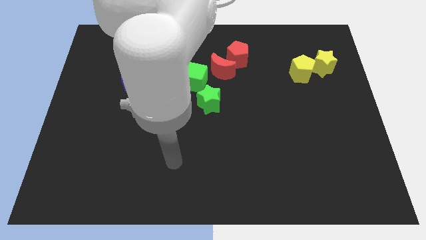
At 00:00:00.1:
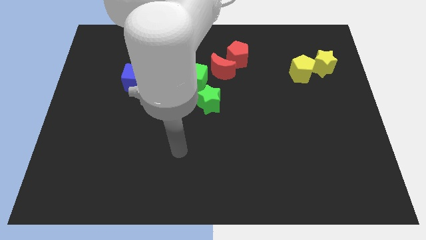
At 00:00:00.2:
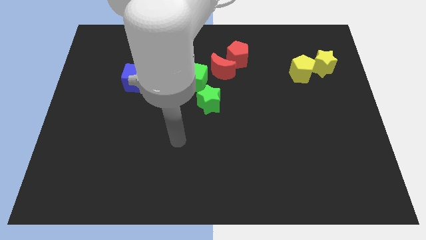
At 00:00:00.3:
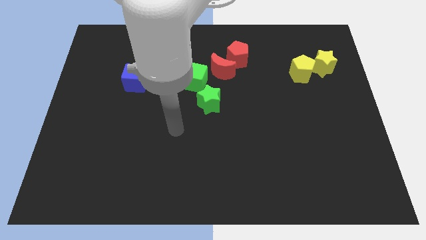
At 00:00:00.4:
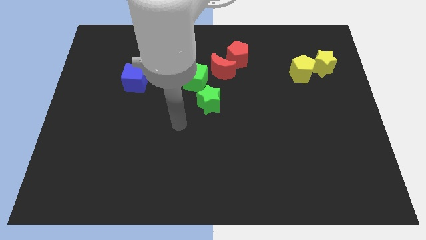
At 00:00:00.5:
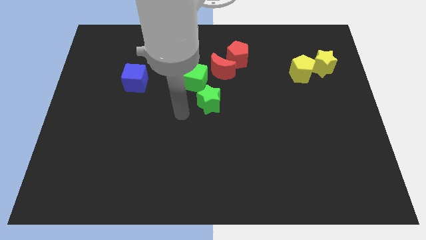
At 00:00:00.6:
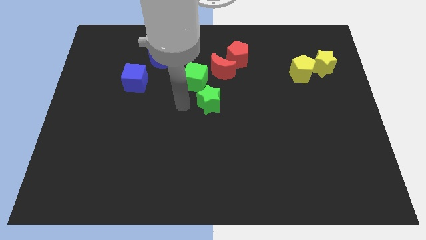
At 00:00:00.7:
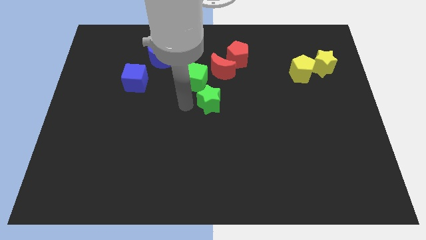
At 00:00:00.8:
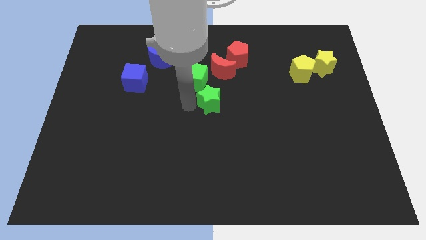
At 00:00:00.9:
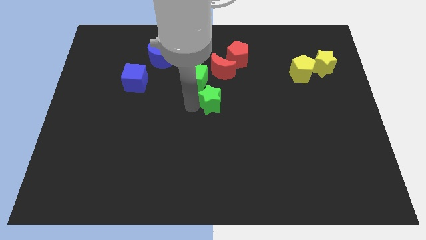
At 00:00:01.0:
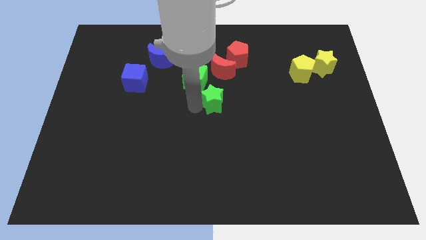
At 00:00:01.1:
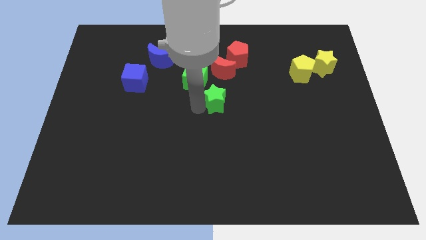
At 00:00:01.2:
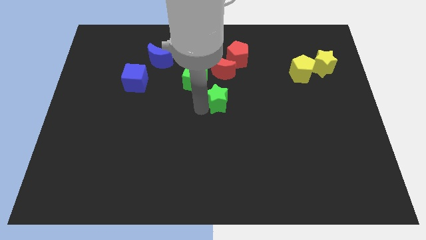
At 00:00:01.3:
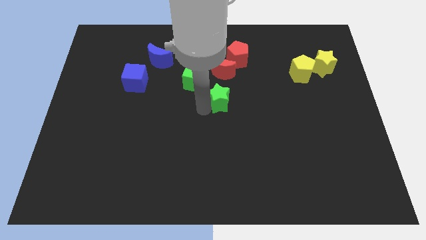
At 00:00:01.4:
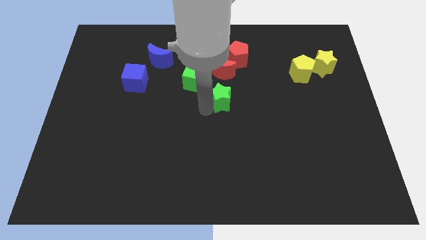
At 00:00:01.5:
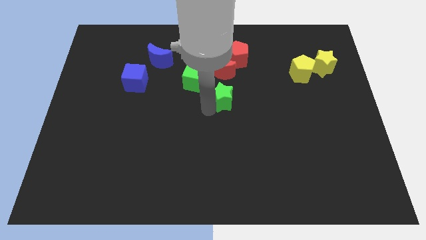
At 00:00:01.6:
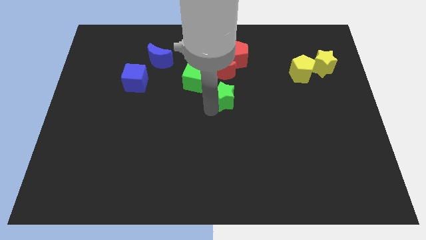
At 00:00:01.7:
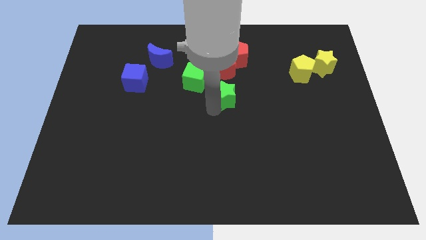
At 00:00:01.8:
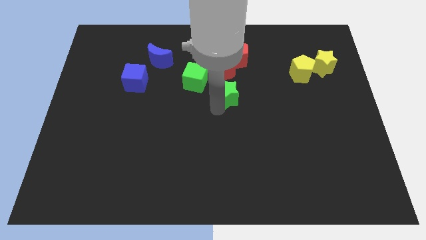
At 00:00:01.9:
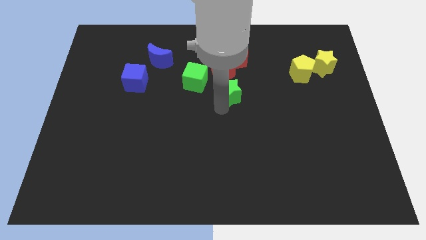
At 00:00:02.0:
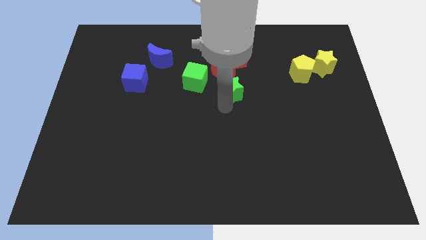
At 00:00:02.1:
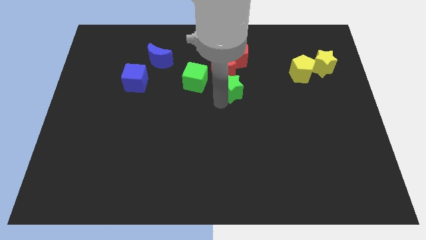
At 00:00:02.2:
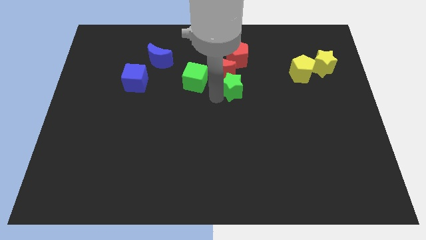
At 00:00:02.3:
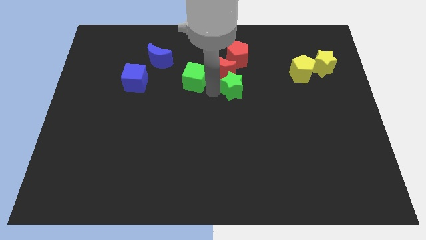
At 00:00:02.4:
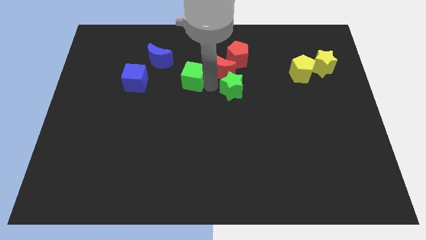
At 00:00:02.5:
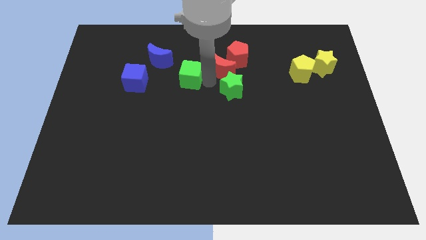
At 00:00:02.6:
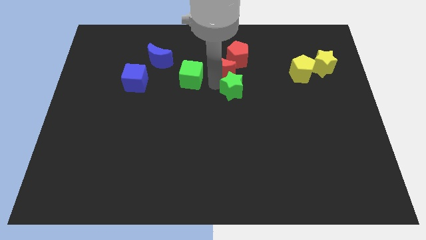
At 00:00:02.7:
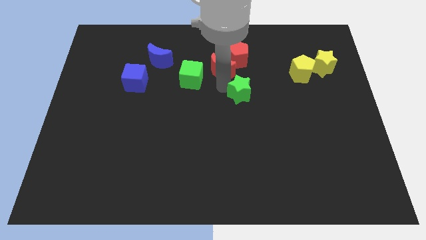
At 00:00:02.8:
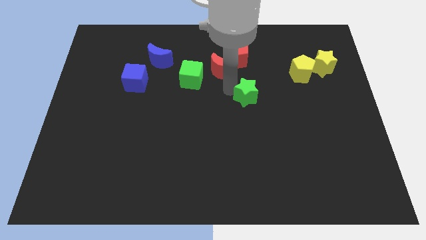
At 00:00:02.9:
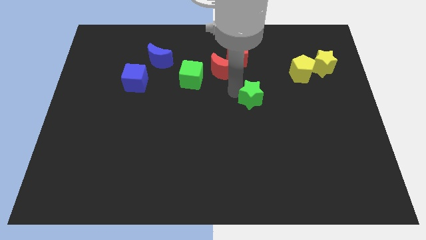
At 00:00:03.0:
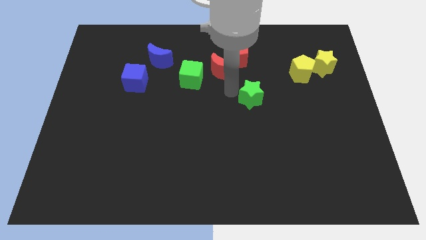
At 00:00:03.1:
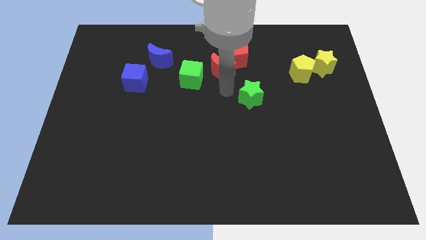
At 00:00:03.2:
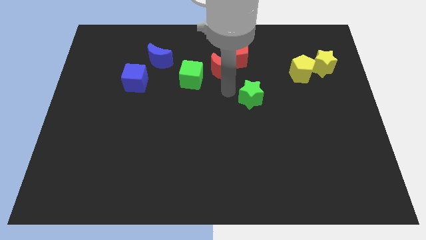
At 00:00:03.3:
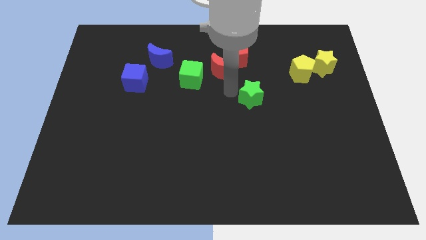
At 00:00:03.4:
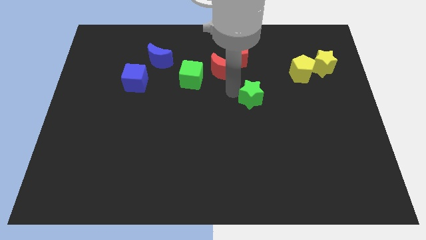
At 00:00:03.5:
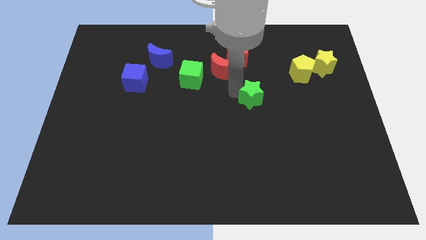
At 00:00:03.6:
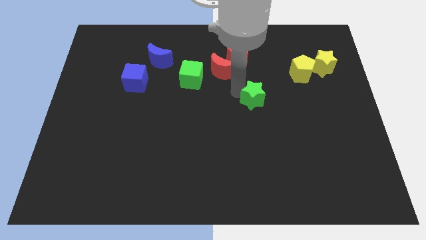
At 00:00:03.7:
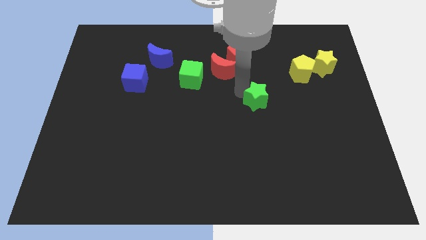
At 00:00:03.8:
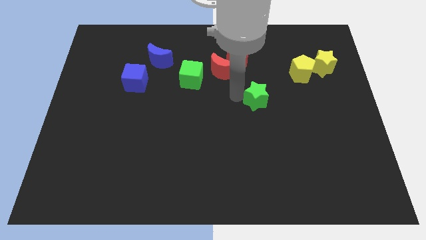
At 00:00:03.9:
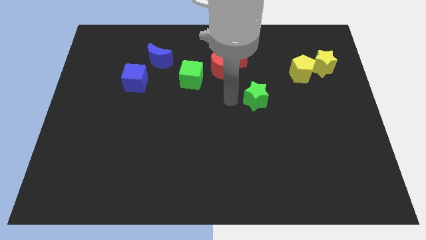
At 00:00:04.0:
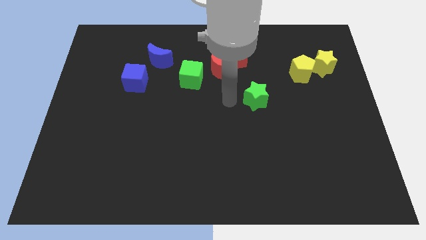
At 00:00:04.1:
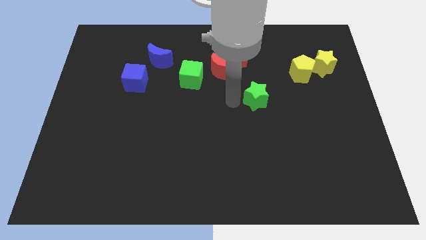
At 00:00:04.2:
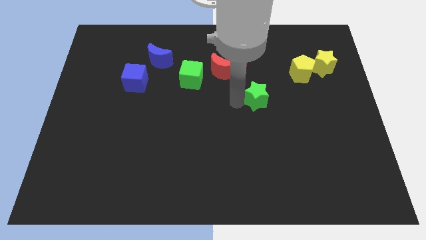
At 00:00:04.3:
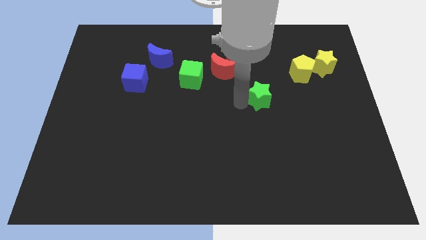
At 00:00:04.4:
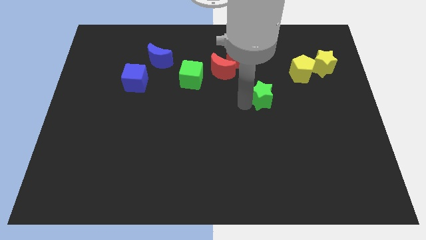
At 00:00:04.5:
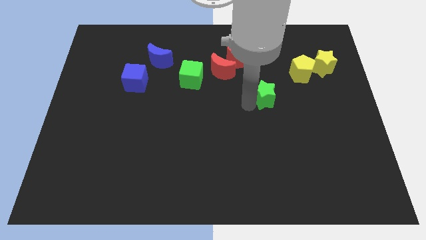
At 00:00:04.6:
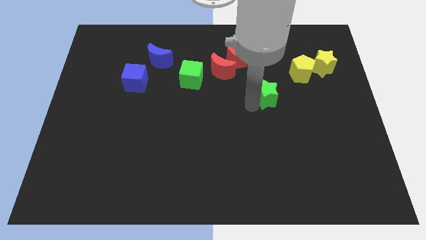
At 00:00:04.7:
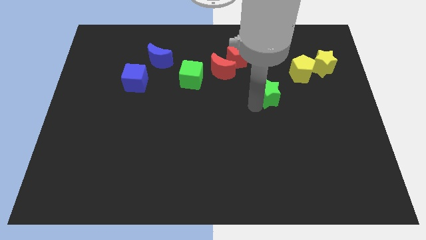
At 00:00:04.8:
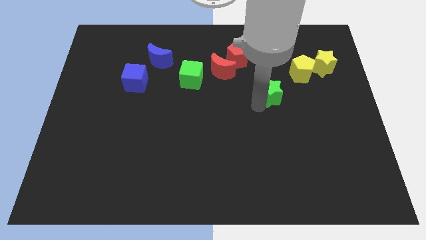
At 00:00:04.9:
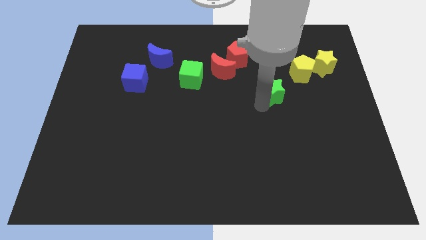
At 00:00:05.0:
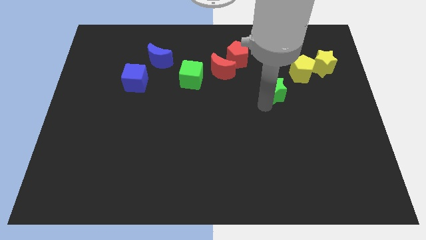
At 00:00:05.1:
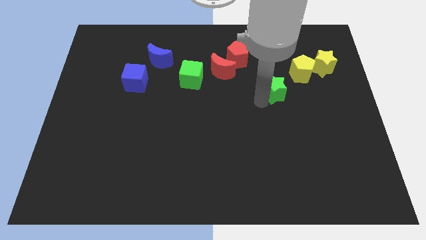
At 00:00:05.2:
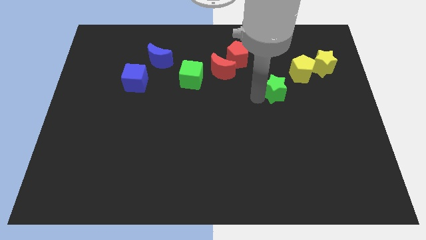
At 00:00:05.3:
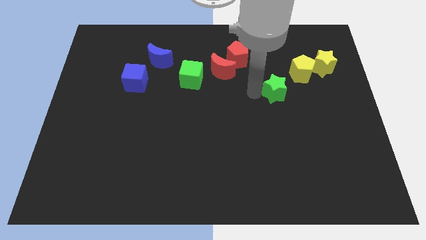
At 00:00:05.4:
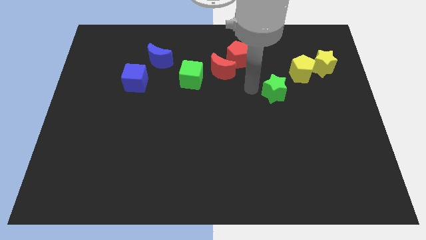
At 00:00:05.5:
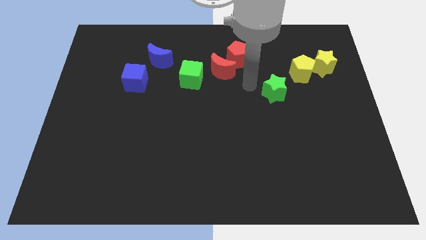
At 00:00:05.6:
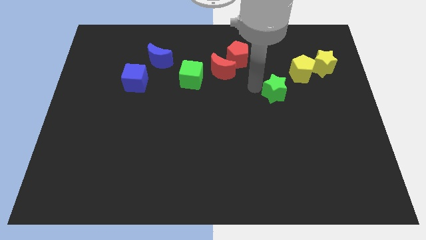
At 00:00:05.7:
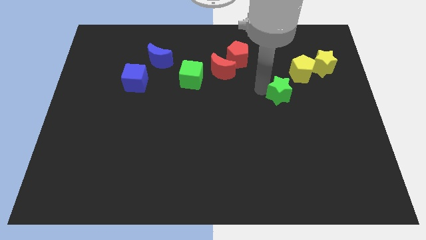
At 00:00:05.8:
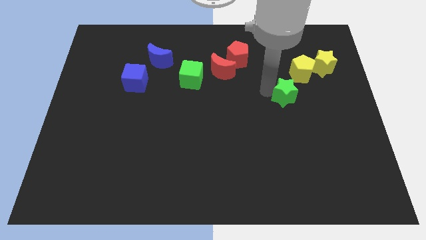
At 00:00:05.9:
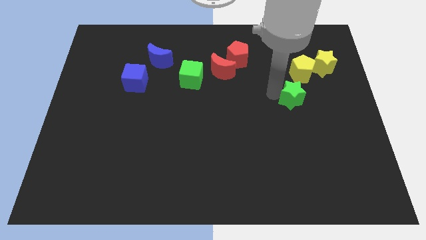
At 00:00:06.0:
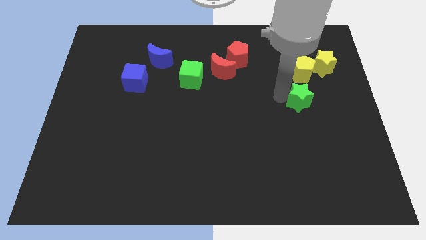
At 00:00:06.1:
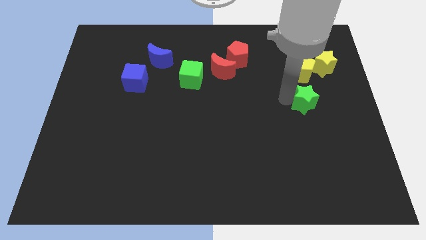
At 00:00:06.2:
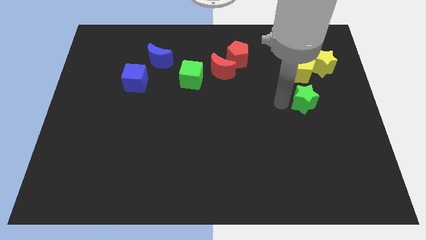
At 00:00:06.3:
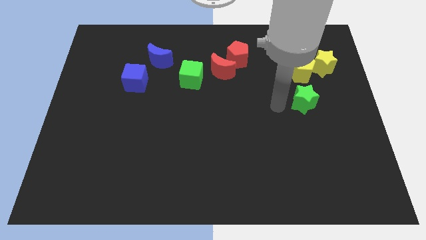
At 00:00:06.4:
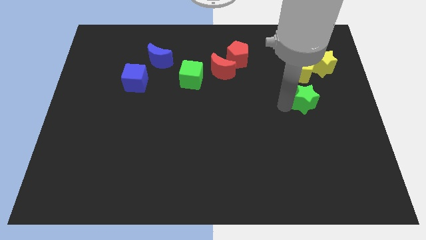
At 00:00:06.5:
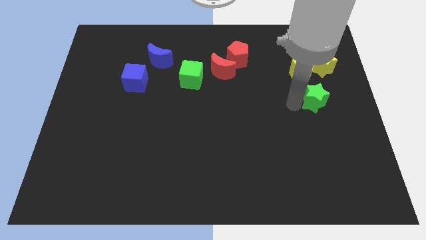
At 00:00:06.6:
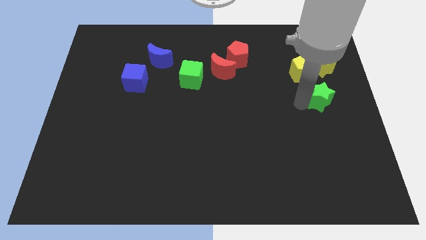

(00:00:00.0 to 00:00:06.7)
put the green star to the center right

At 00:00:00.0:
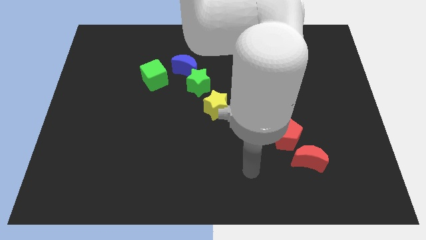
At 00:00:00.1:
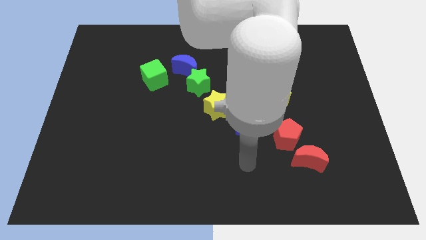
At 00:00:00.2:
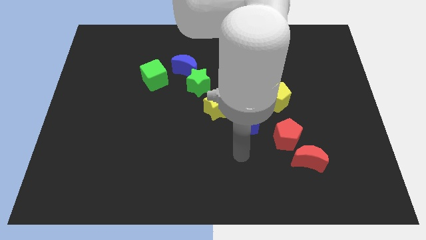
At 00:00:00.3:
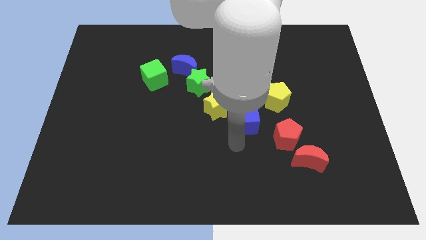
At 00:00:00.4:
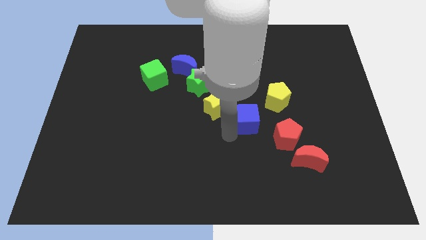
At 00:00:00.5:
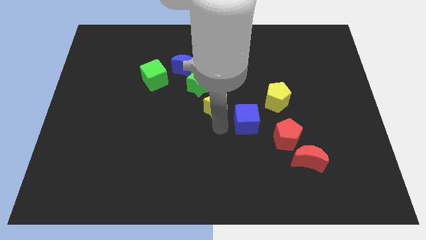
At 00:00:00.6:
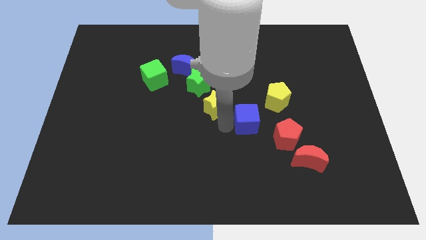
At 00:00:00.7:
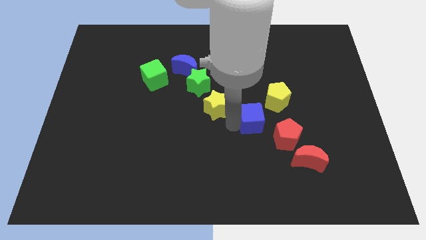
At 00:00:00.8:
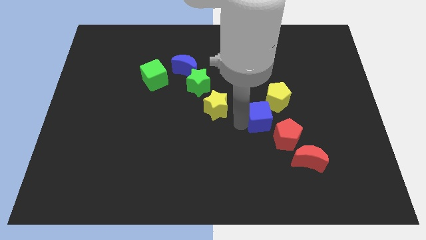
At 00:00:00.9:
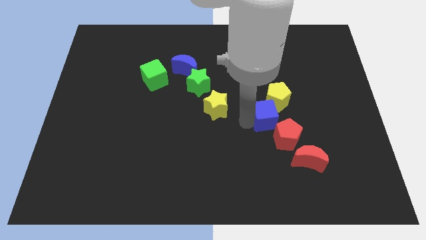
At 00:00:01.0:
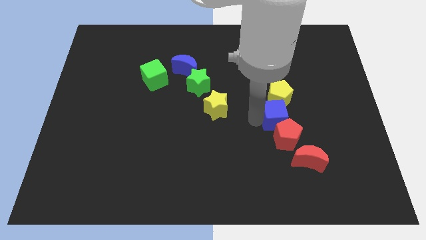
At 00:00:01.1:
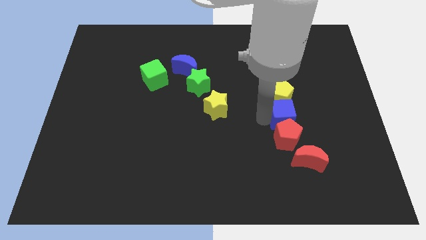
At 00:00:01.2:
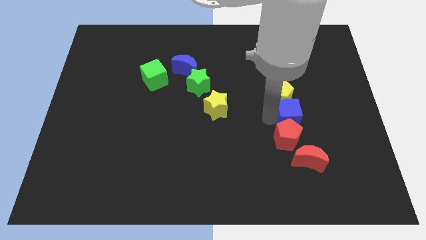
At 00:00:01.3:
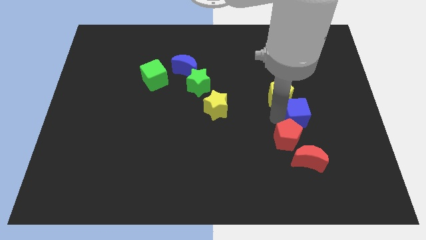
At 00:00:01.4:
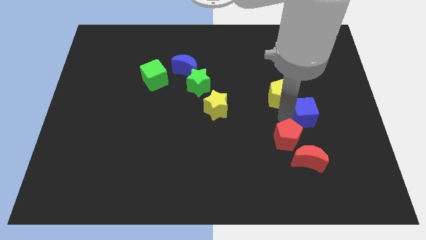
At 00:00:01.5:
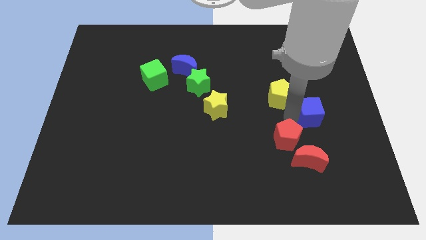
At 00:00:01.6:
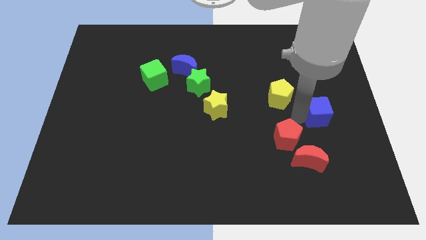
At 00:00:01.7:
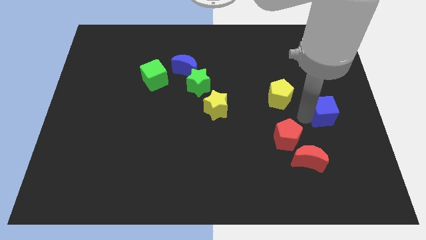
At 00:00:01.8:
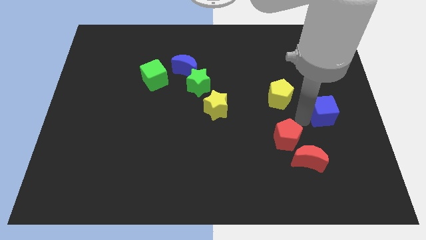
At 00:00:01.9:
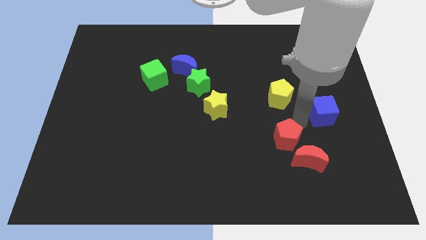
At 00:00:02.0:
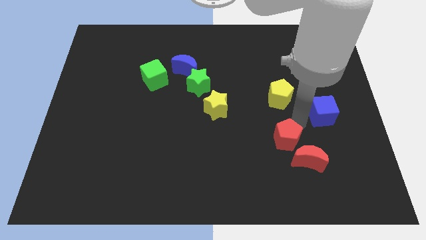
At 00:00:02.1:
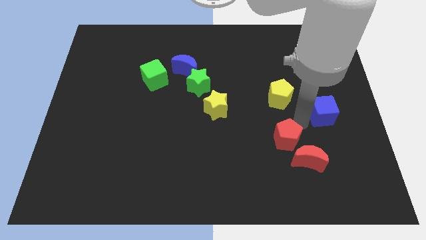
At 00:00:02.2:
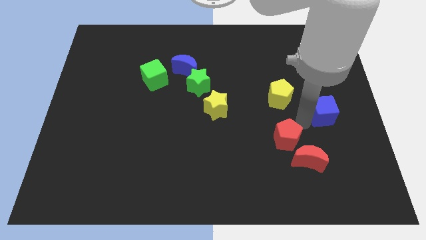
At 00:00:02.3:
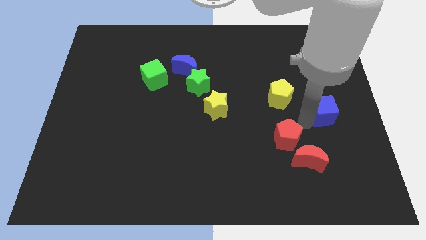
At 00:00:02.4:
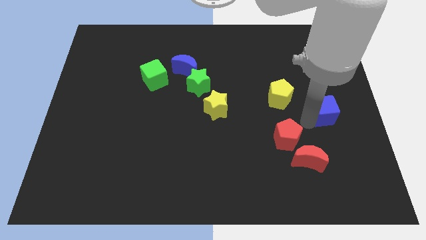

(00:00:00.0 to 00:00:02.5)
slide the blue cube to the center right
